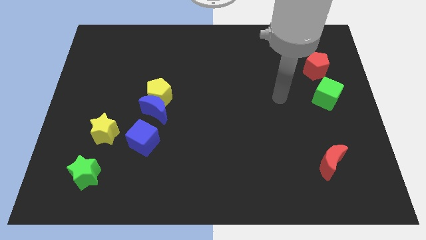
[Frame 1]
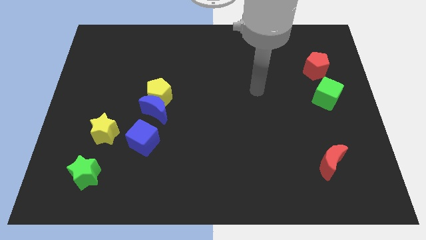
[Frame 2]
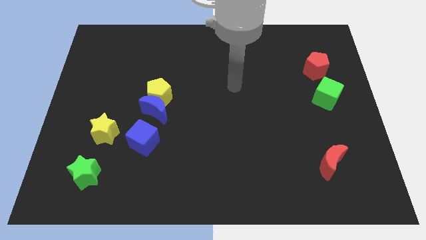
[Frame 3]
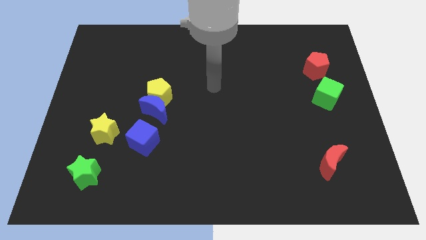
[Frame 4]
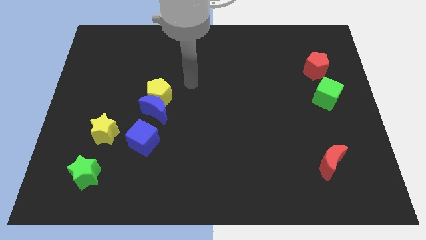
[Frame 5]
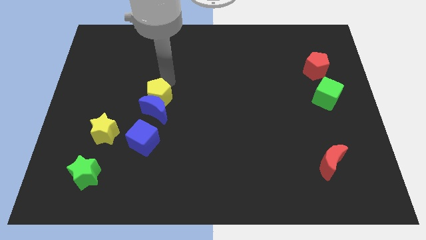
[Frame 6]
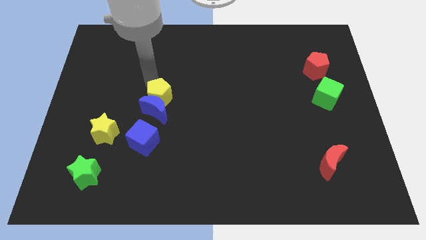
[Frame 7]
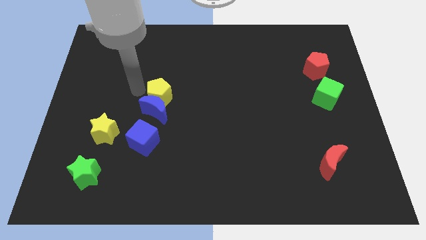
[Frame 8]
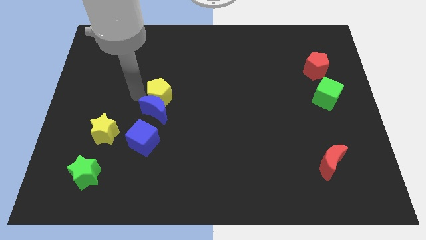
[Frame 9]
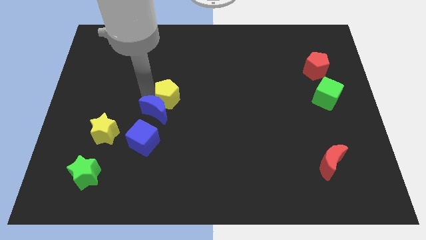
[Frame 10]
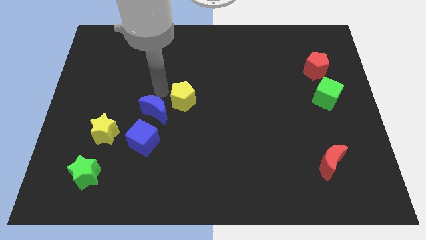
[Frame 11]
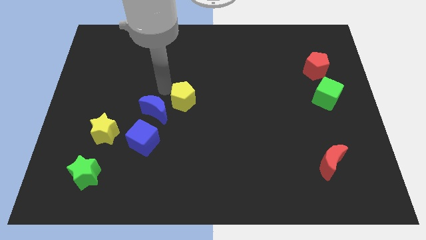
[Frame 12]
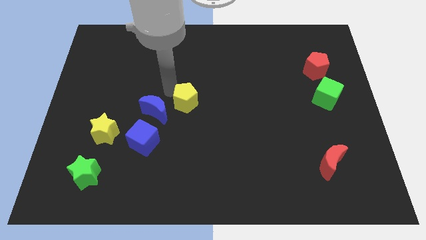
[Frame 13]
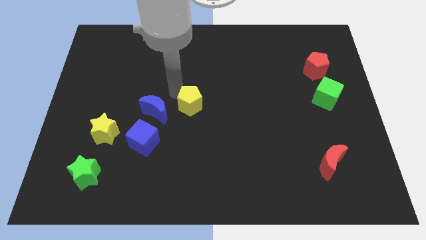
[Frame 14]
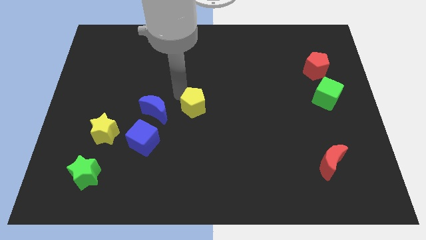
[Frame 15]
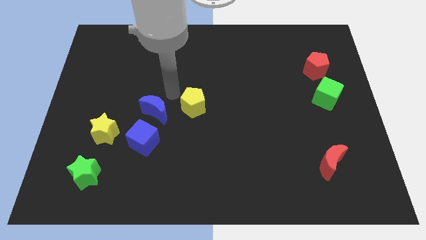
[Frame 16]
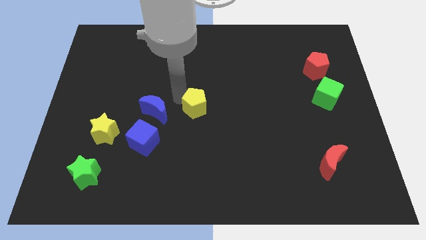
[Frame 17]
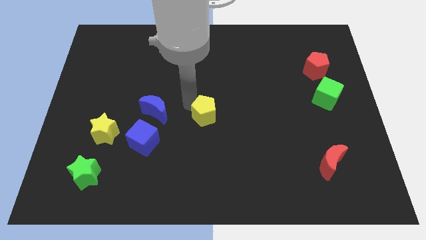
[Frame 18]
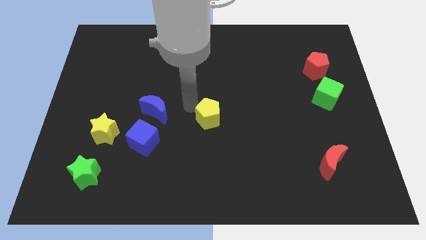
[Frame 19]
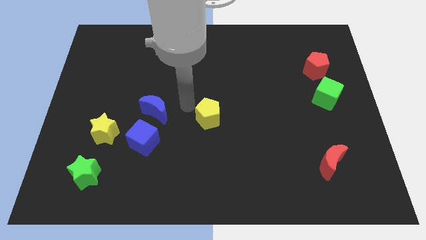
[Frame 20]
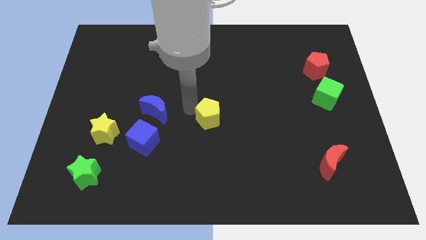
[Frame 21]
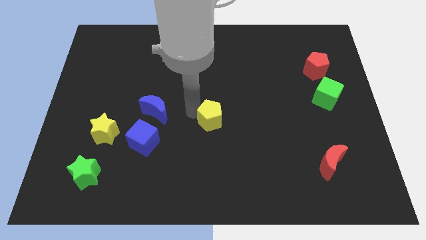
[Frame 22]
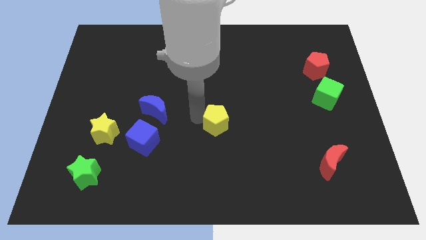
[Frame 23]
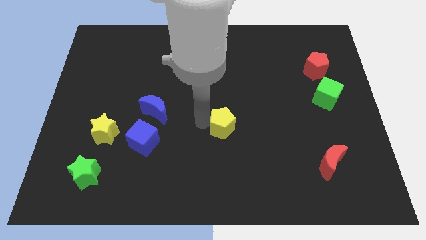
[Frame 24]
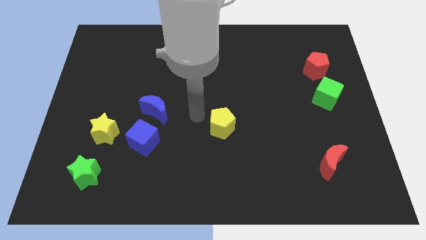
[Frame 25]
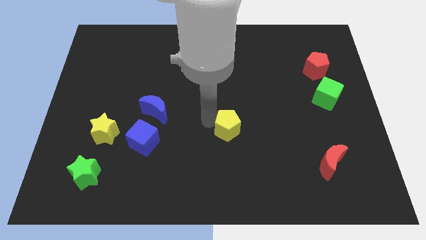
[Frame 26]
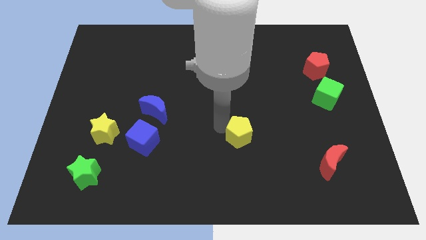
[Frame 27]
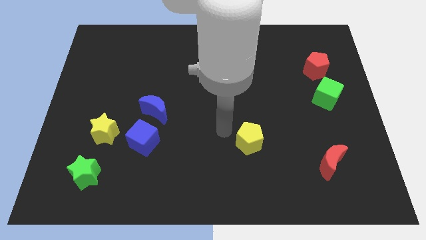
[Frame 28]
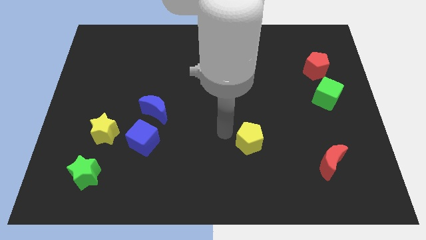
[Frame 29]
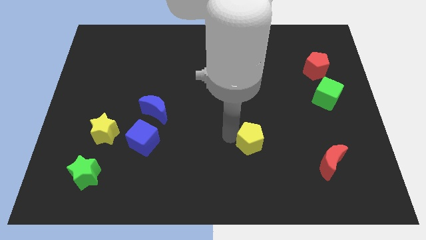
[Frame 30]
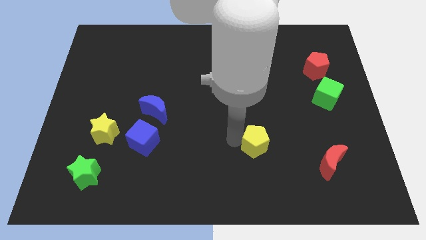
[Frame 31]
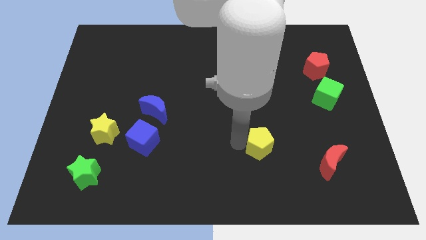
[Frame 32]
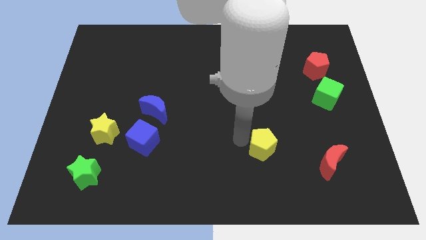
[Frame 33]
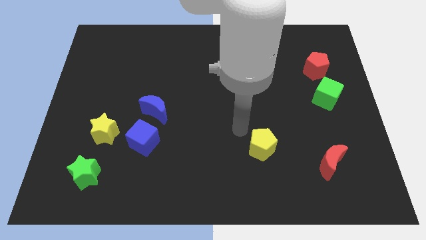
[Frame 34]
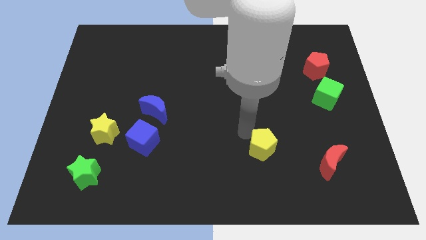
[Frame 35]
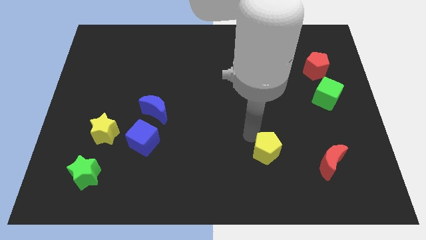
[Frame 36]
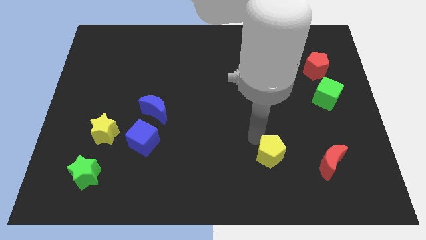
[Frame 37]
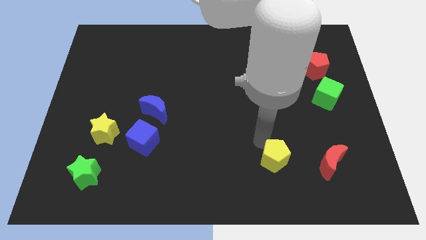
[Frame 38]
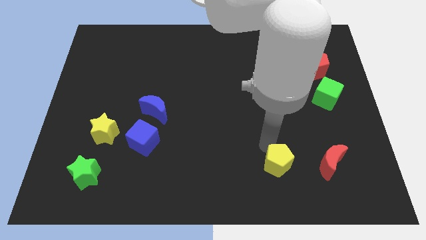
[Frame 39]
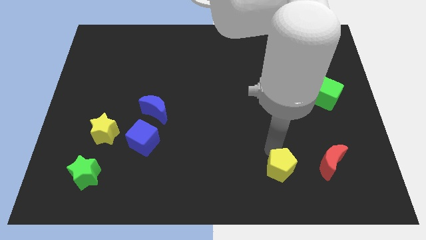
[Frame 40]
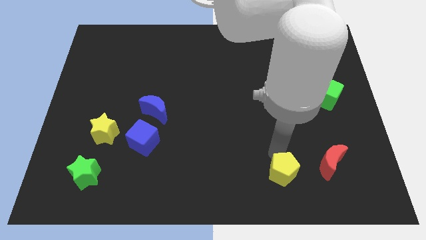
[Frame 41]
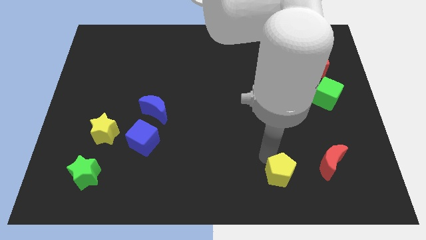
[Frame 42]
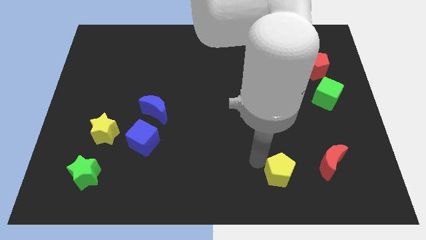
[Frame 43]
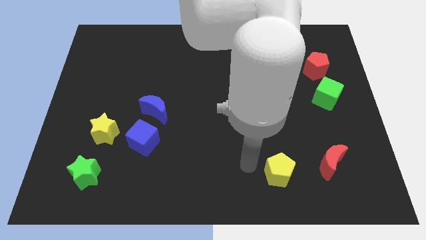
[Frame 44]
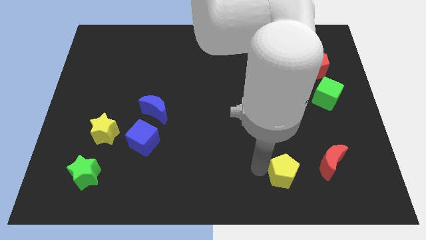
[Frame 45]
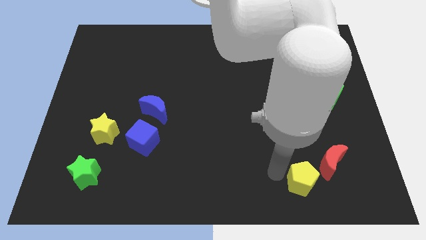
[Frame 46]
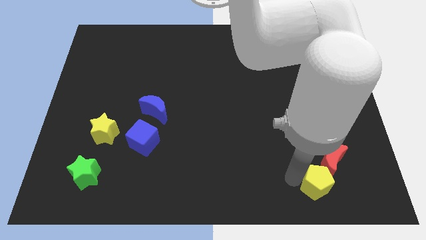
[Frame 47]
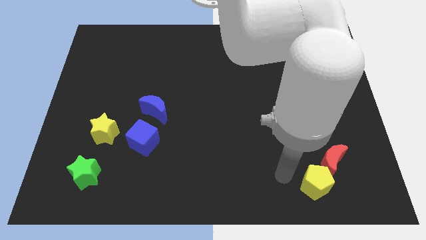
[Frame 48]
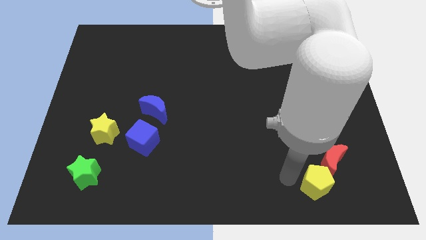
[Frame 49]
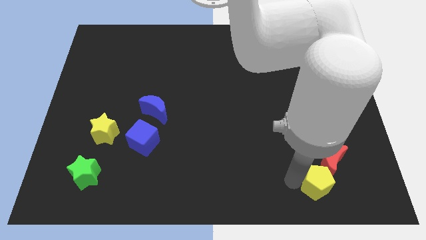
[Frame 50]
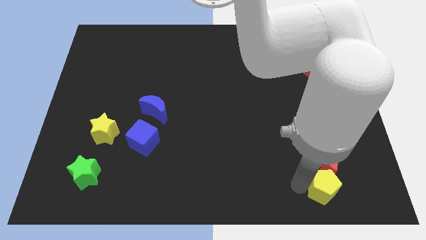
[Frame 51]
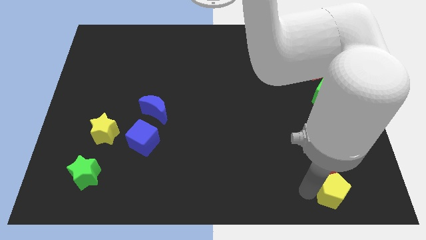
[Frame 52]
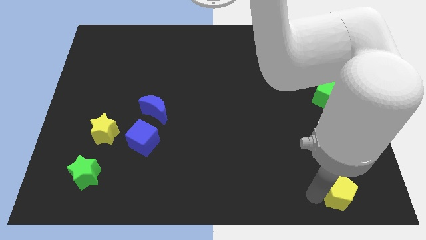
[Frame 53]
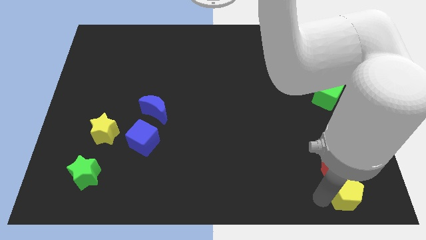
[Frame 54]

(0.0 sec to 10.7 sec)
put the yellow pentagon to the bottom right

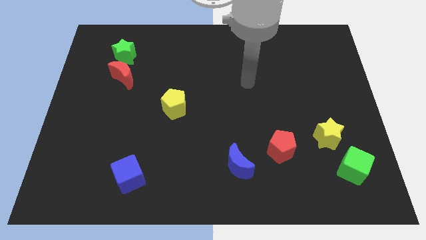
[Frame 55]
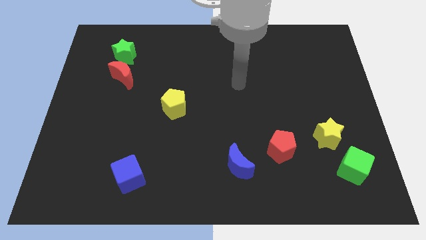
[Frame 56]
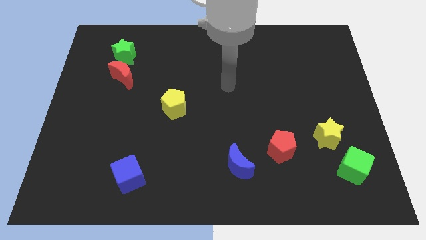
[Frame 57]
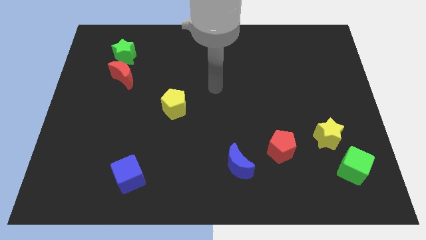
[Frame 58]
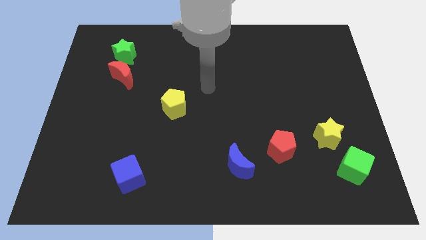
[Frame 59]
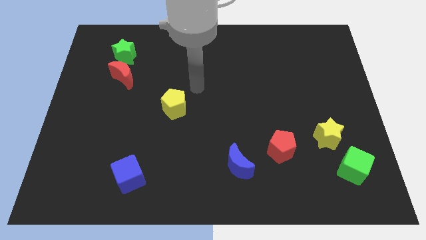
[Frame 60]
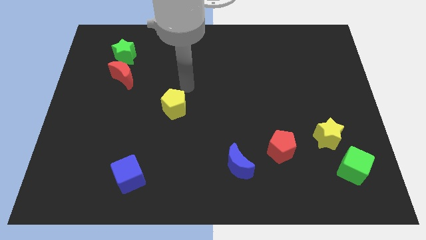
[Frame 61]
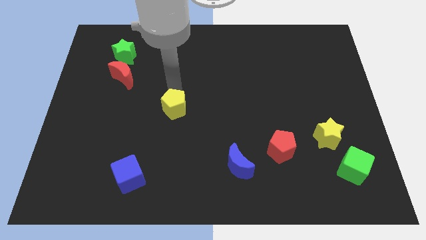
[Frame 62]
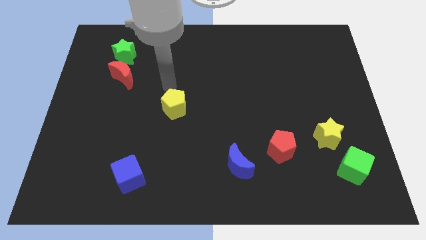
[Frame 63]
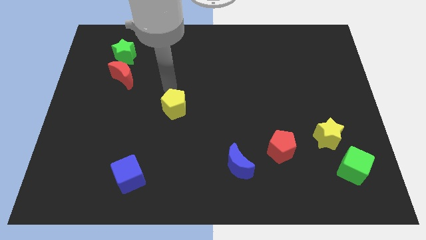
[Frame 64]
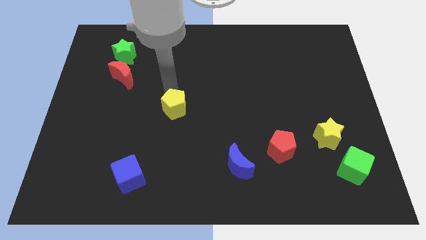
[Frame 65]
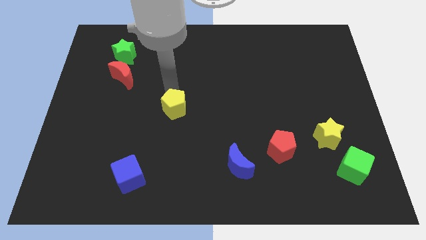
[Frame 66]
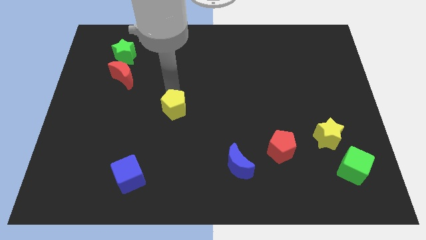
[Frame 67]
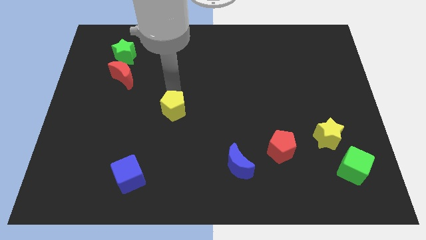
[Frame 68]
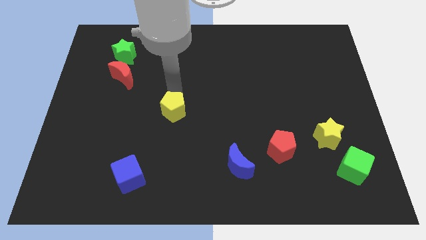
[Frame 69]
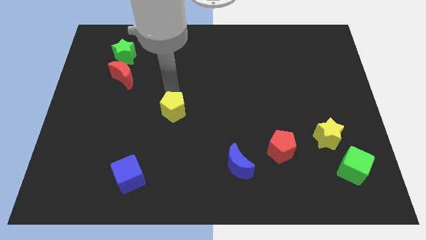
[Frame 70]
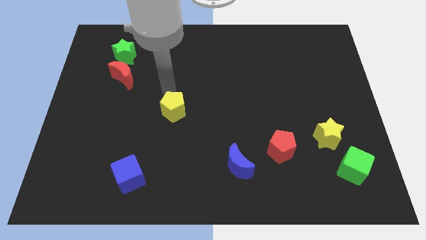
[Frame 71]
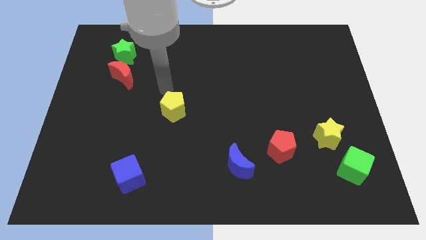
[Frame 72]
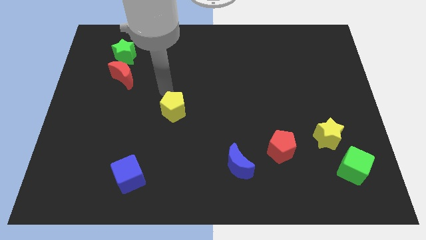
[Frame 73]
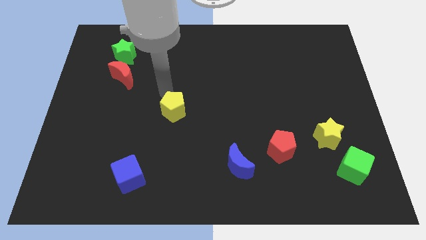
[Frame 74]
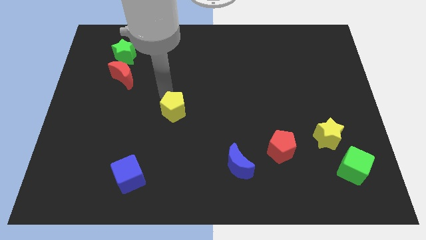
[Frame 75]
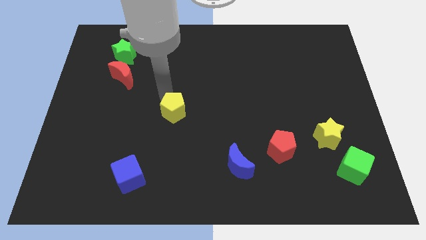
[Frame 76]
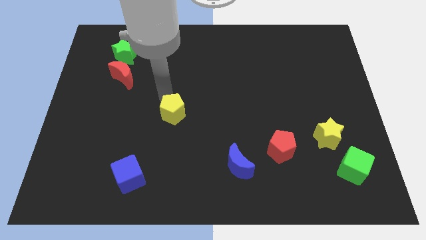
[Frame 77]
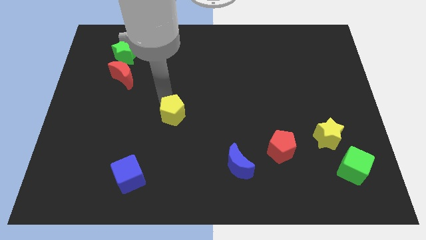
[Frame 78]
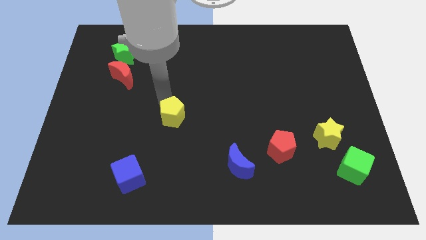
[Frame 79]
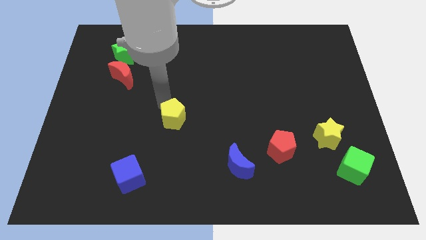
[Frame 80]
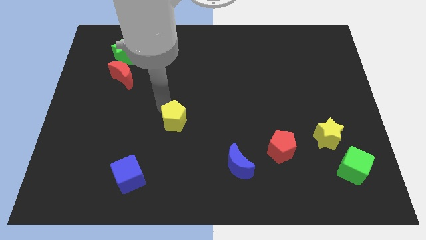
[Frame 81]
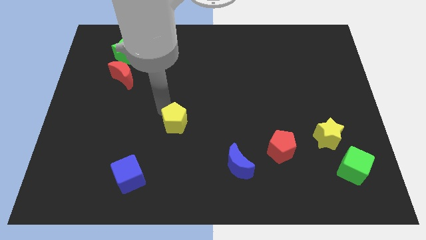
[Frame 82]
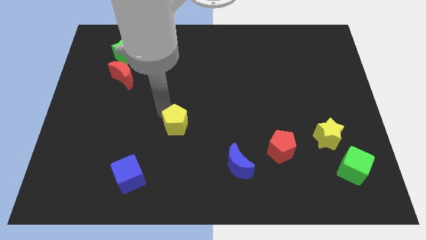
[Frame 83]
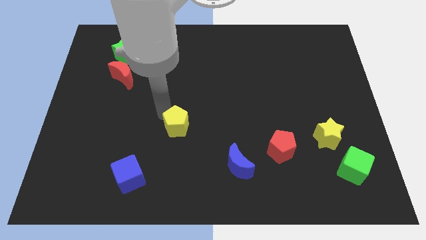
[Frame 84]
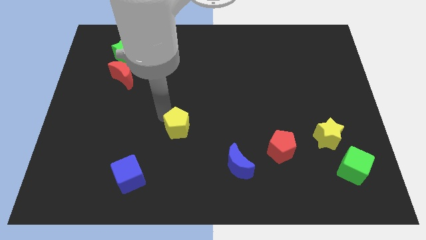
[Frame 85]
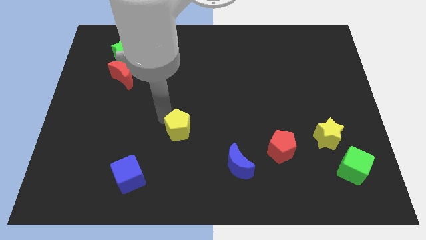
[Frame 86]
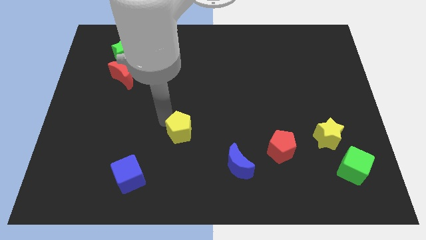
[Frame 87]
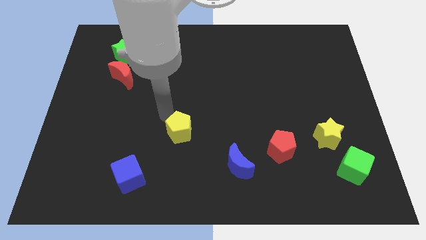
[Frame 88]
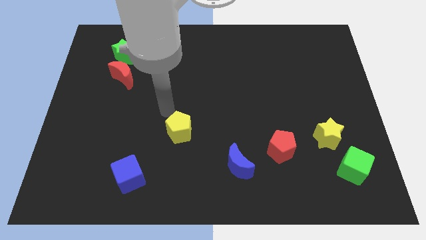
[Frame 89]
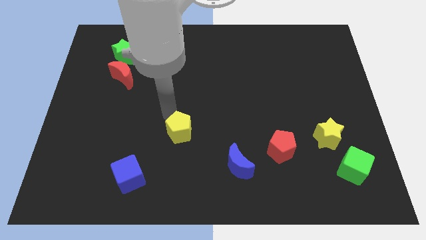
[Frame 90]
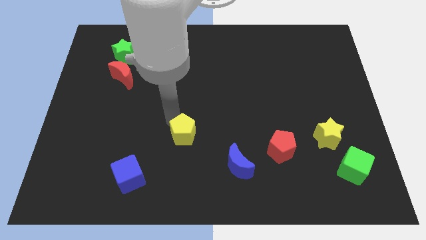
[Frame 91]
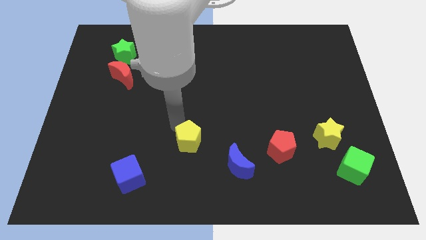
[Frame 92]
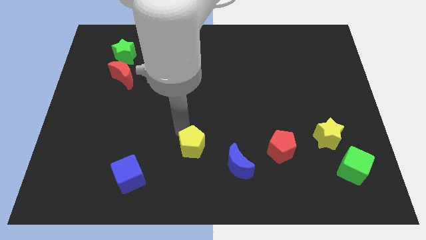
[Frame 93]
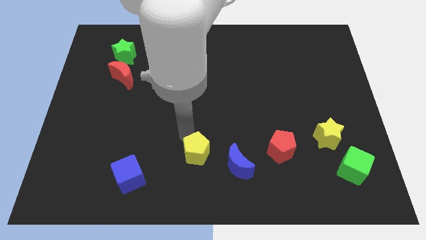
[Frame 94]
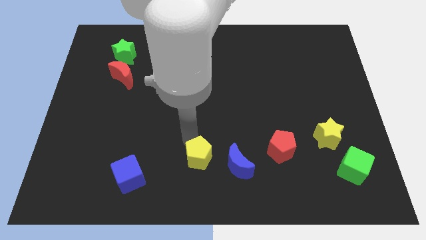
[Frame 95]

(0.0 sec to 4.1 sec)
put the yellow pentagon to the bottom
